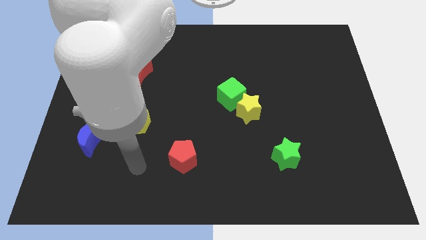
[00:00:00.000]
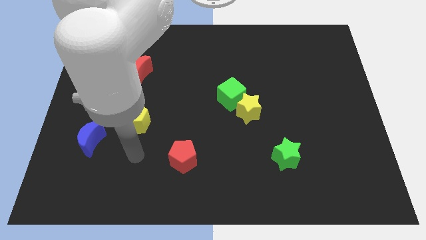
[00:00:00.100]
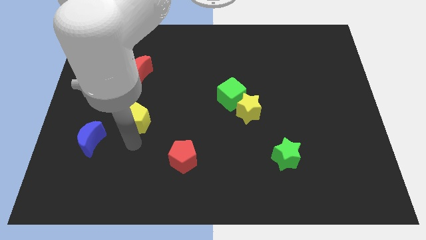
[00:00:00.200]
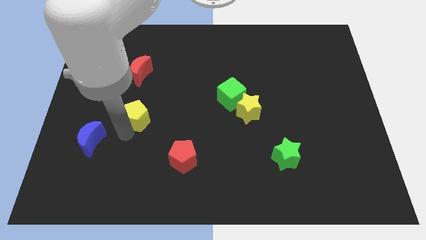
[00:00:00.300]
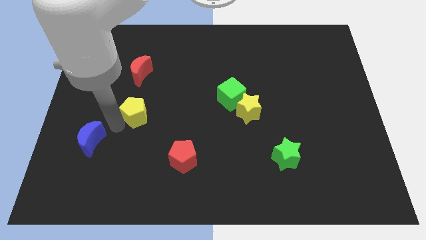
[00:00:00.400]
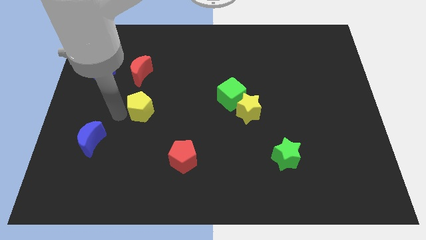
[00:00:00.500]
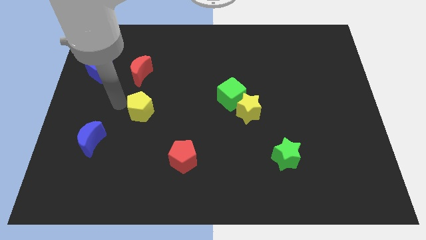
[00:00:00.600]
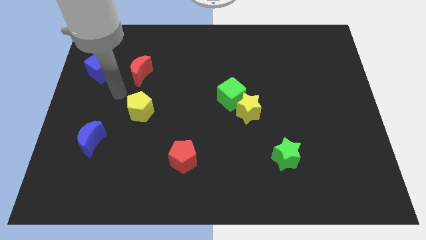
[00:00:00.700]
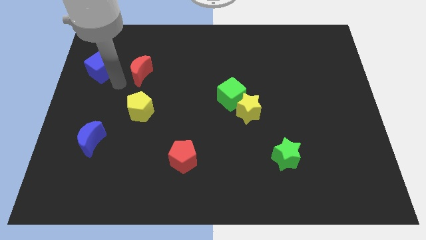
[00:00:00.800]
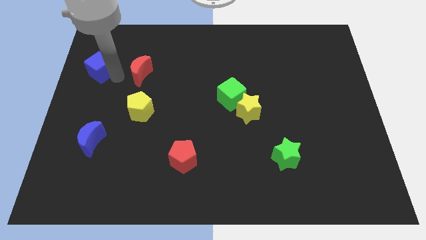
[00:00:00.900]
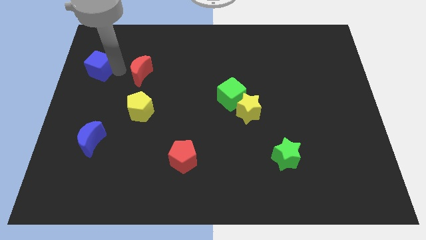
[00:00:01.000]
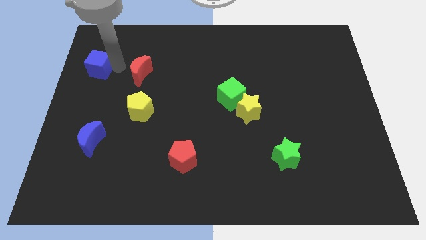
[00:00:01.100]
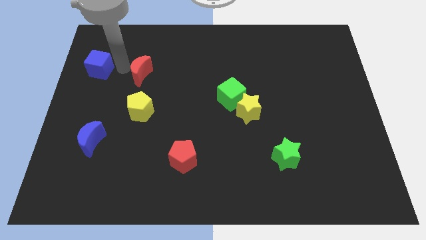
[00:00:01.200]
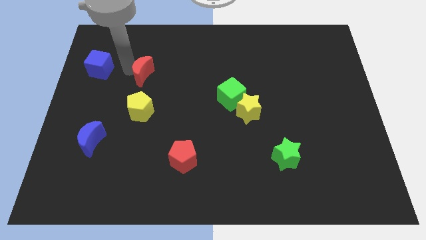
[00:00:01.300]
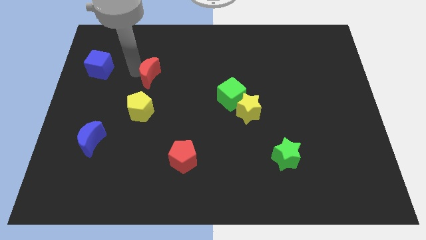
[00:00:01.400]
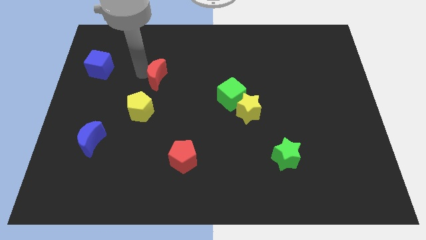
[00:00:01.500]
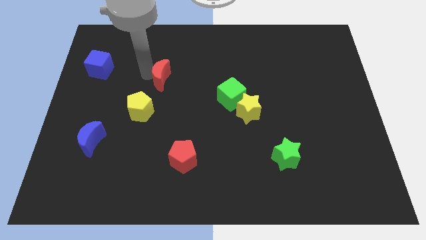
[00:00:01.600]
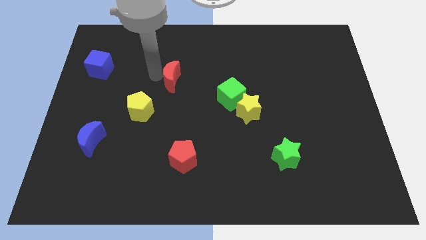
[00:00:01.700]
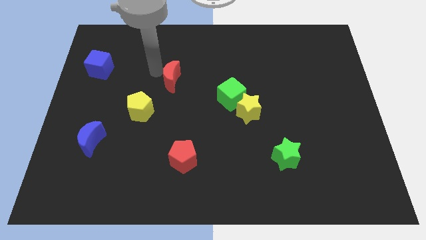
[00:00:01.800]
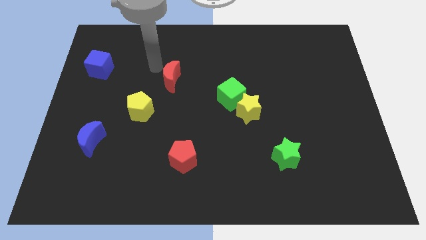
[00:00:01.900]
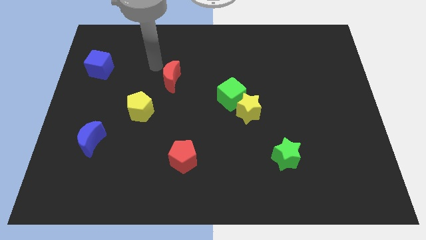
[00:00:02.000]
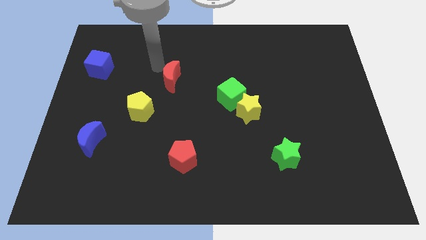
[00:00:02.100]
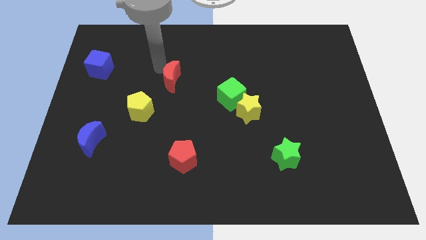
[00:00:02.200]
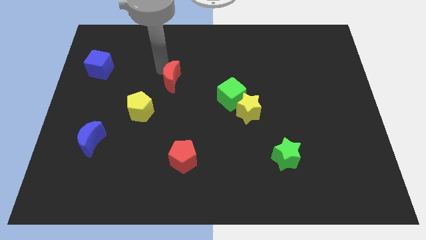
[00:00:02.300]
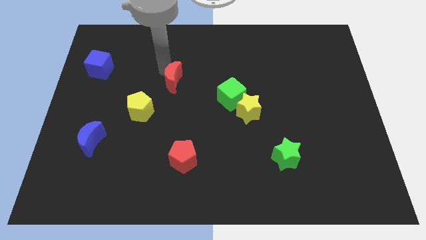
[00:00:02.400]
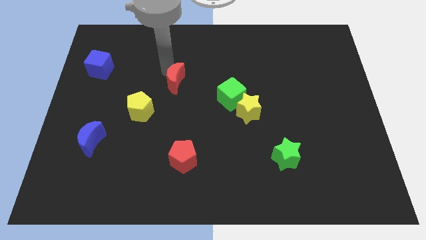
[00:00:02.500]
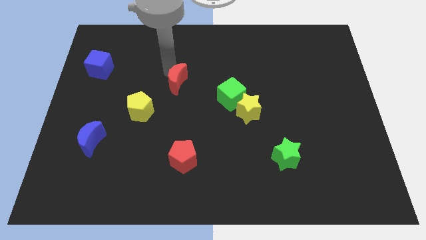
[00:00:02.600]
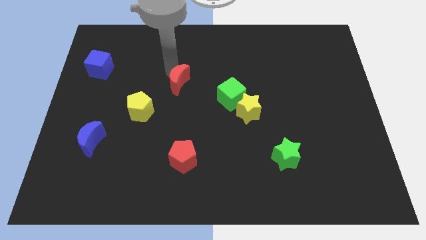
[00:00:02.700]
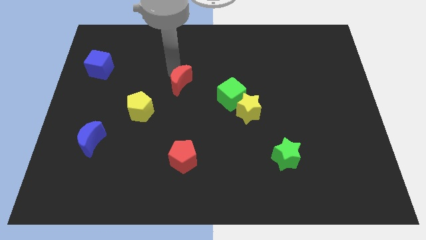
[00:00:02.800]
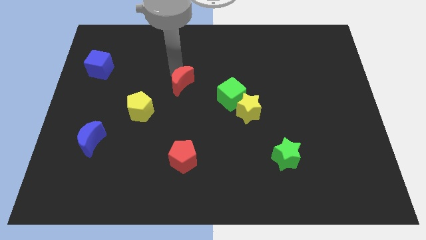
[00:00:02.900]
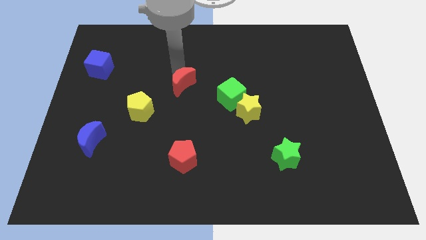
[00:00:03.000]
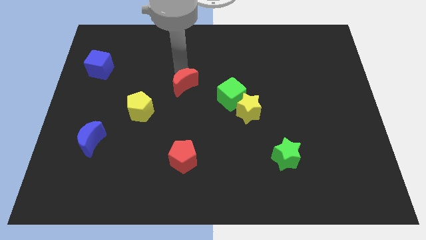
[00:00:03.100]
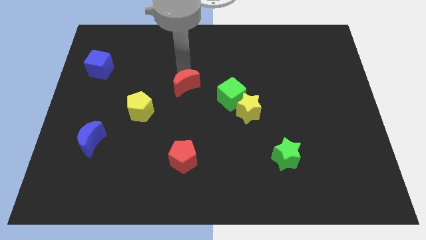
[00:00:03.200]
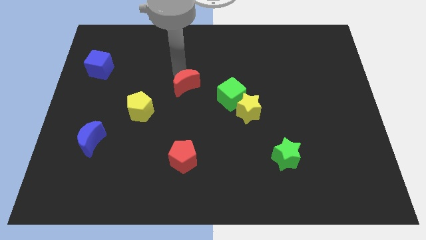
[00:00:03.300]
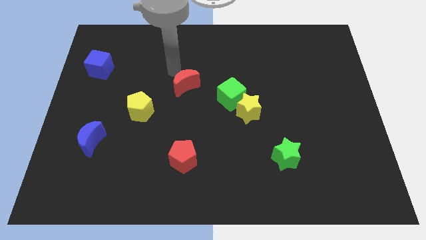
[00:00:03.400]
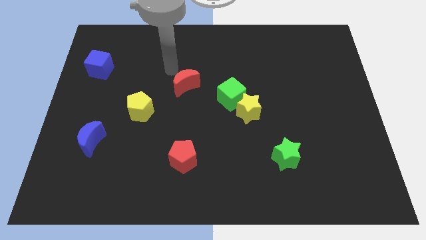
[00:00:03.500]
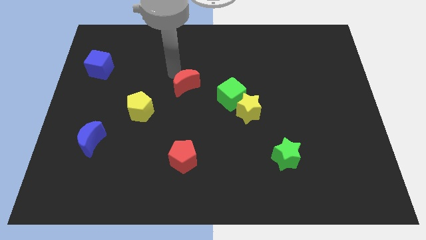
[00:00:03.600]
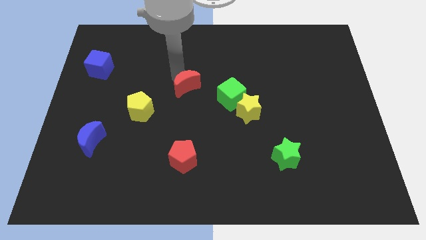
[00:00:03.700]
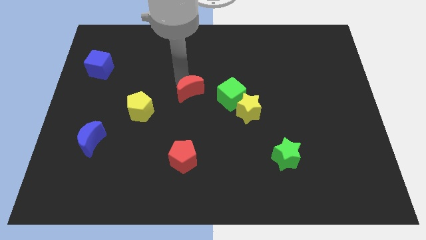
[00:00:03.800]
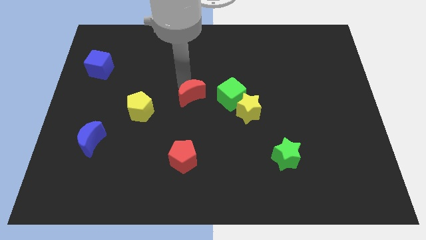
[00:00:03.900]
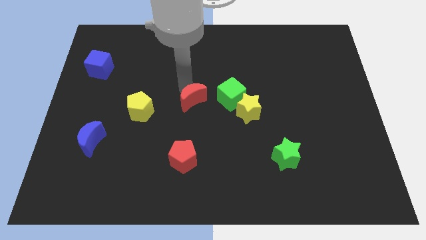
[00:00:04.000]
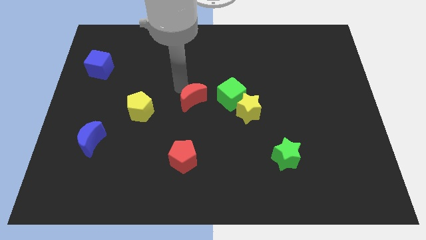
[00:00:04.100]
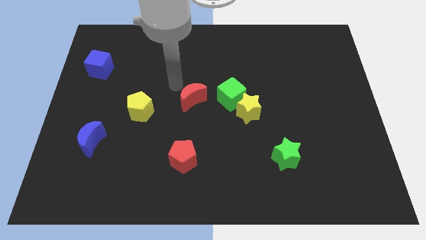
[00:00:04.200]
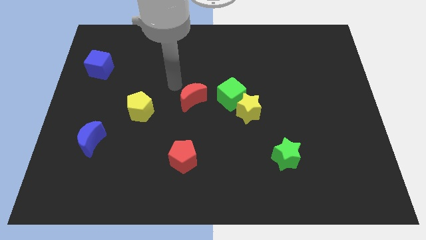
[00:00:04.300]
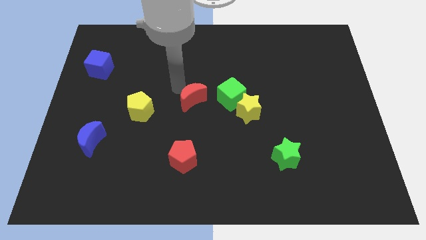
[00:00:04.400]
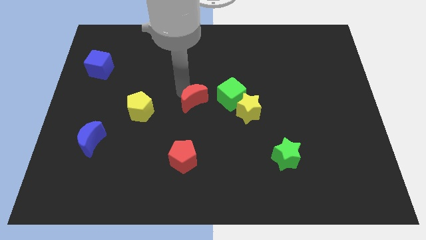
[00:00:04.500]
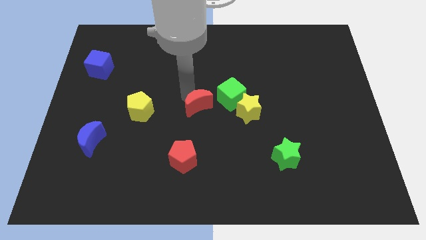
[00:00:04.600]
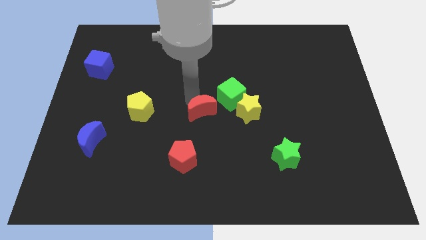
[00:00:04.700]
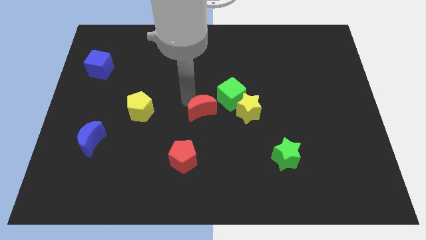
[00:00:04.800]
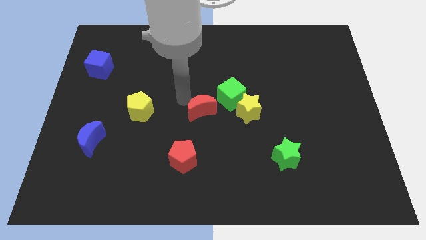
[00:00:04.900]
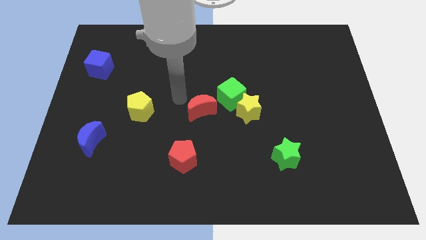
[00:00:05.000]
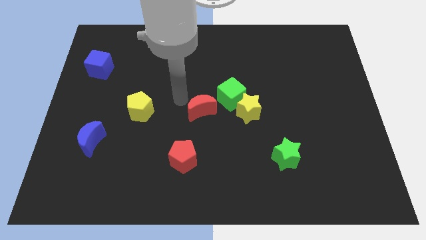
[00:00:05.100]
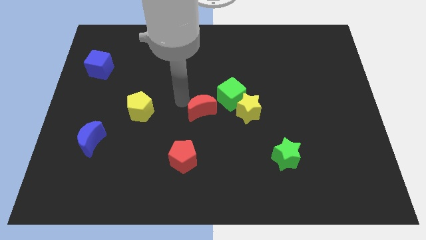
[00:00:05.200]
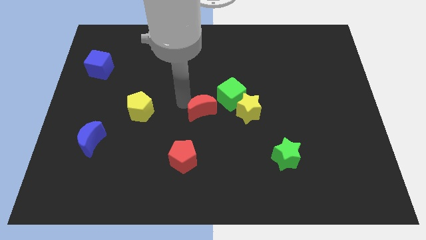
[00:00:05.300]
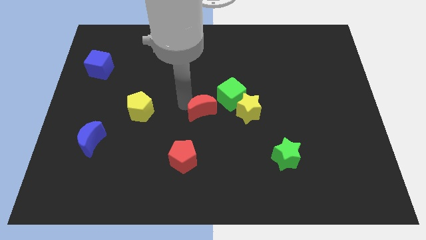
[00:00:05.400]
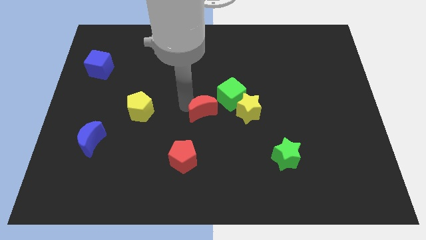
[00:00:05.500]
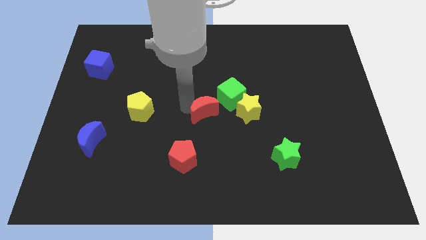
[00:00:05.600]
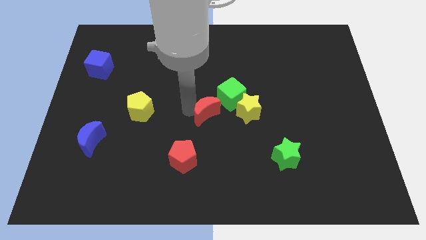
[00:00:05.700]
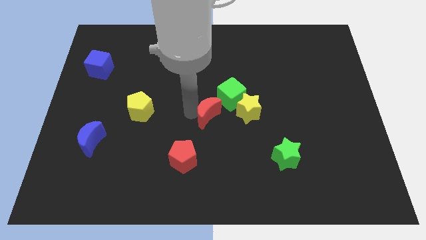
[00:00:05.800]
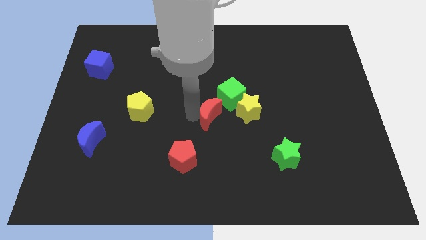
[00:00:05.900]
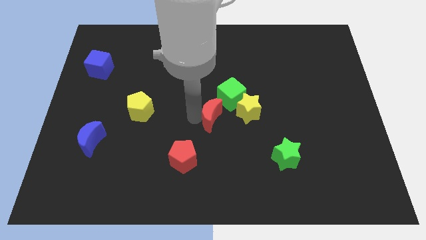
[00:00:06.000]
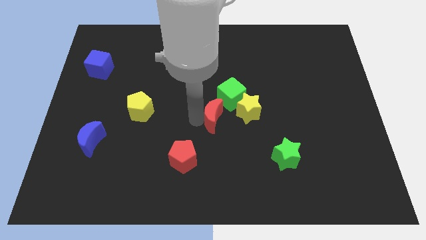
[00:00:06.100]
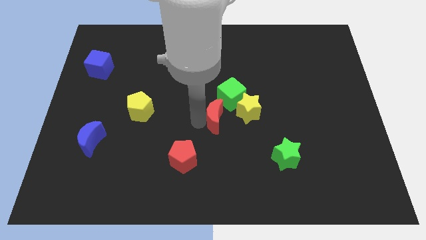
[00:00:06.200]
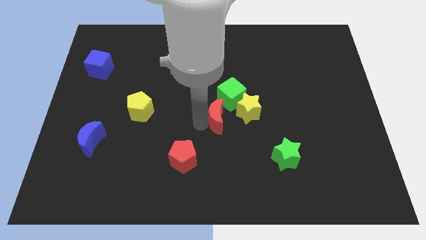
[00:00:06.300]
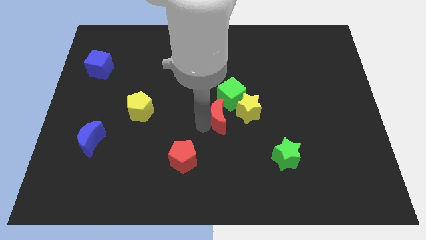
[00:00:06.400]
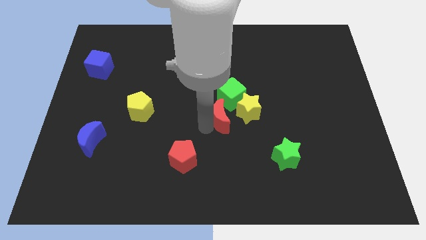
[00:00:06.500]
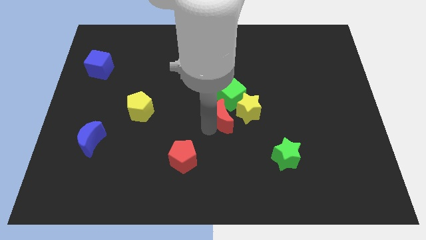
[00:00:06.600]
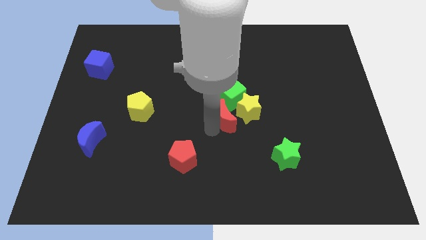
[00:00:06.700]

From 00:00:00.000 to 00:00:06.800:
move the red moon to the yellow star
